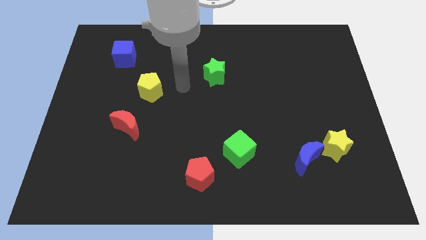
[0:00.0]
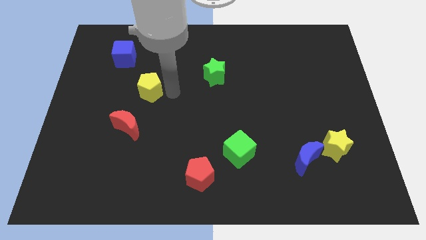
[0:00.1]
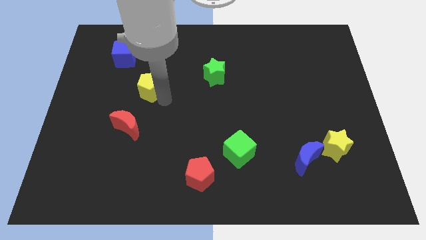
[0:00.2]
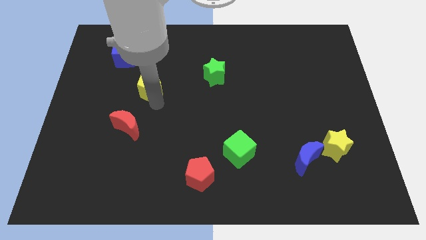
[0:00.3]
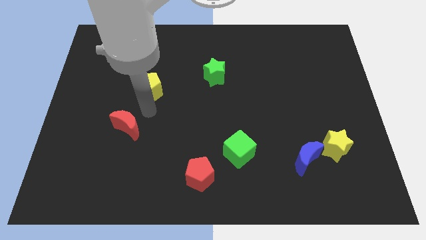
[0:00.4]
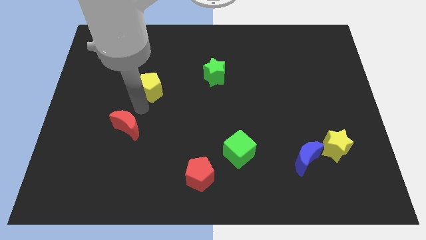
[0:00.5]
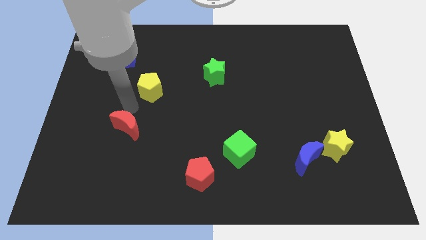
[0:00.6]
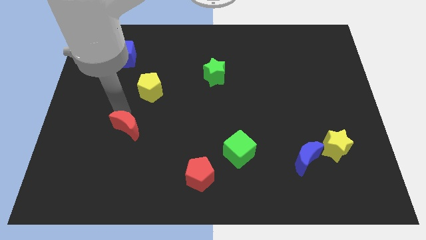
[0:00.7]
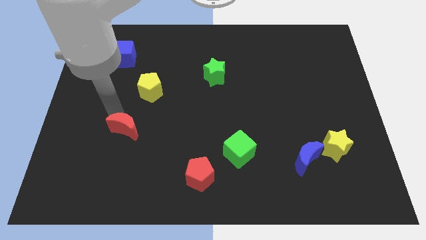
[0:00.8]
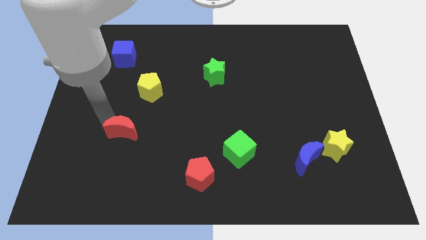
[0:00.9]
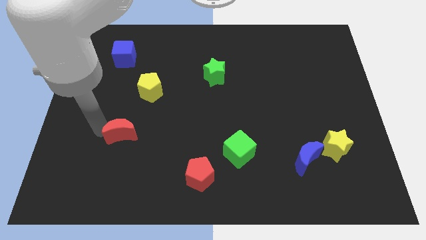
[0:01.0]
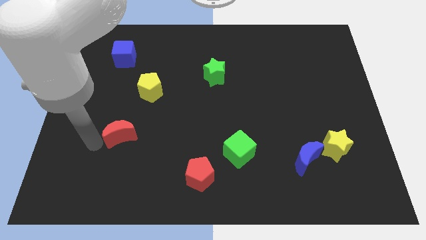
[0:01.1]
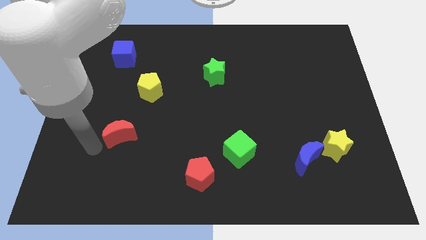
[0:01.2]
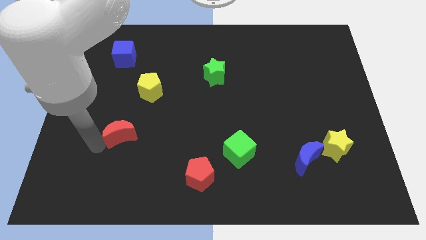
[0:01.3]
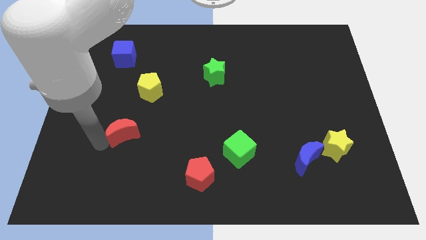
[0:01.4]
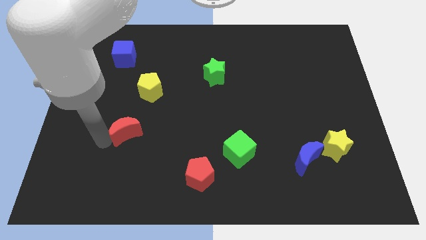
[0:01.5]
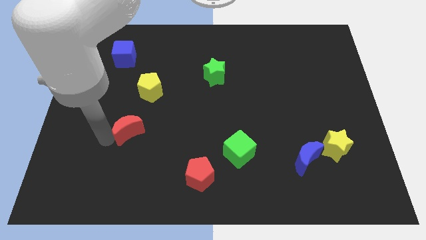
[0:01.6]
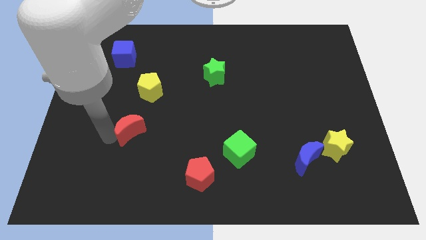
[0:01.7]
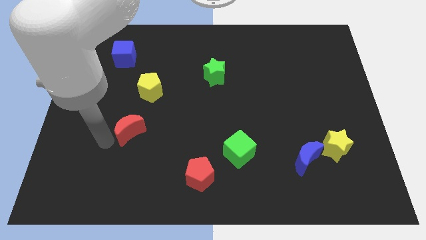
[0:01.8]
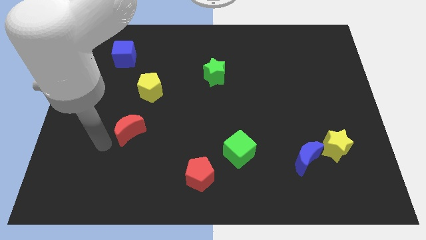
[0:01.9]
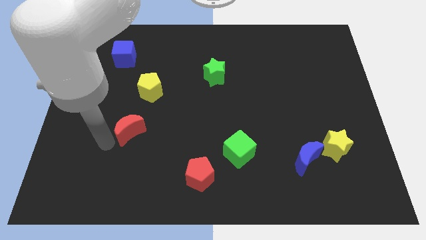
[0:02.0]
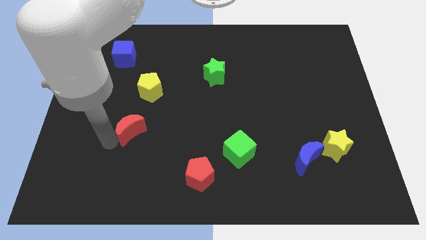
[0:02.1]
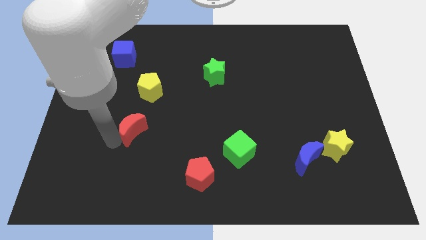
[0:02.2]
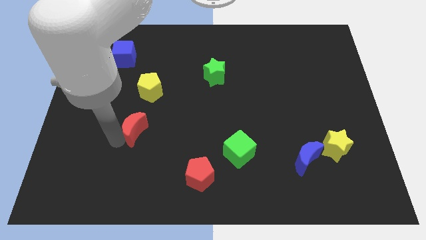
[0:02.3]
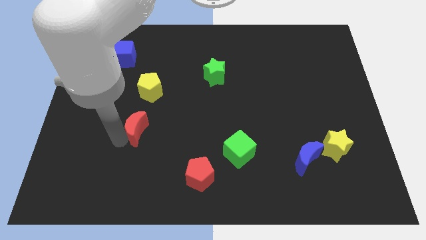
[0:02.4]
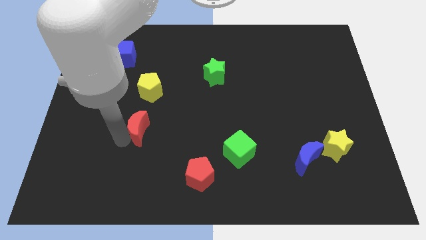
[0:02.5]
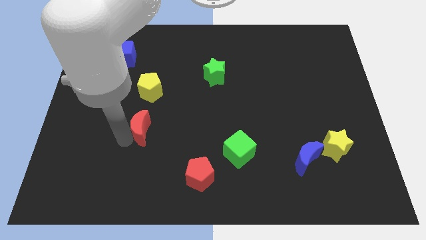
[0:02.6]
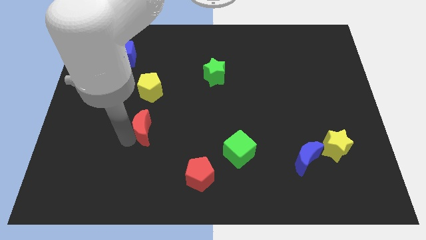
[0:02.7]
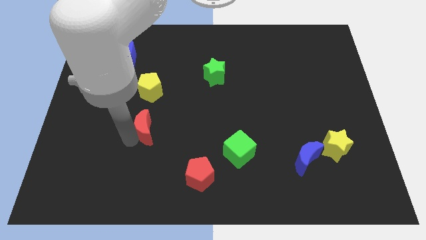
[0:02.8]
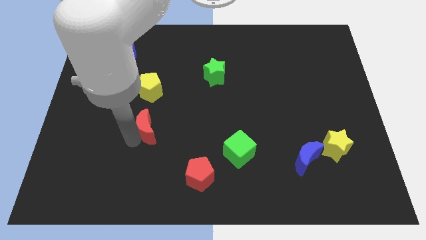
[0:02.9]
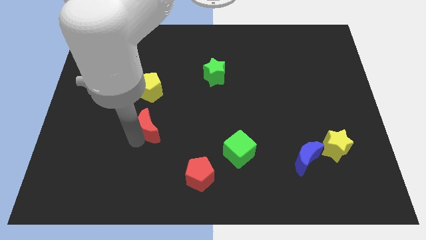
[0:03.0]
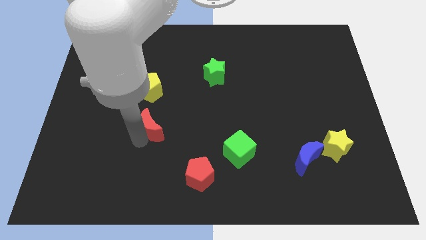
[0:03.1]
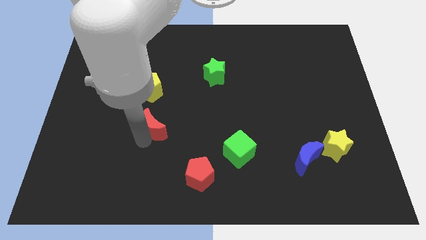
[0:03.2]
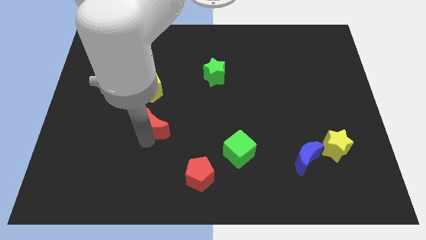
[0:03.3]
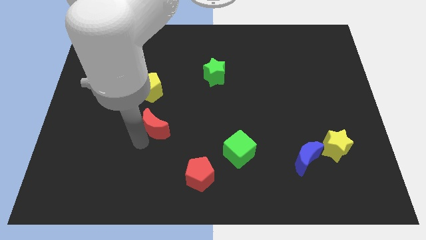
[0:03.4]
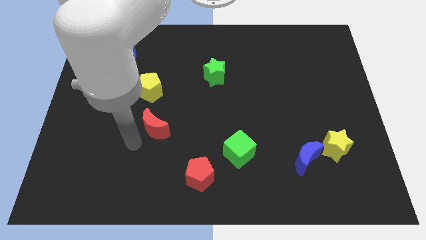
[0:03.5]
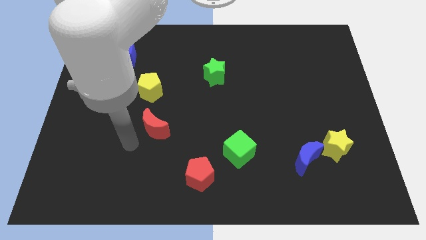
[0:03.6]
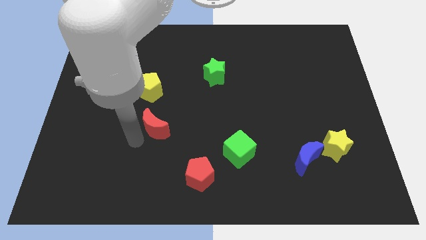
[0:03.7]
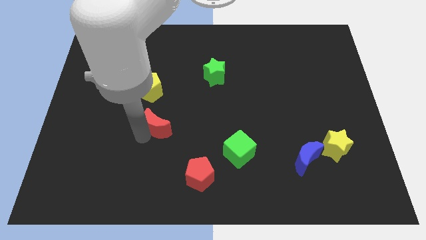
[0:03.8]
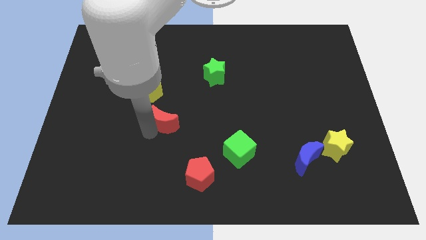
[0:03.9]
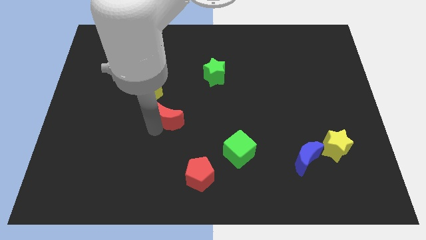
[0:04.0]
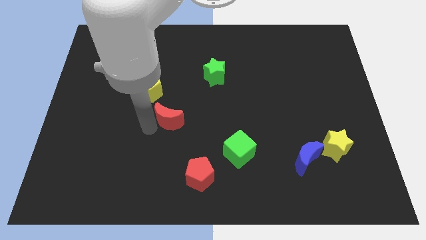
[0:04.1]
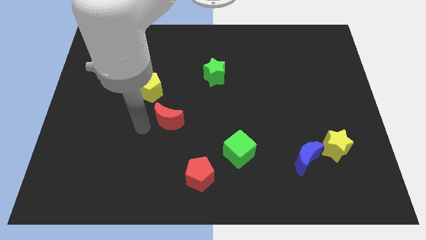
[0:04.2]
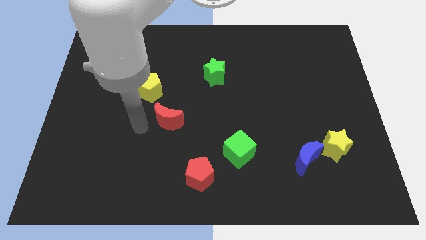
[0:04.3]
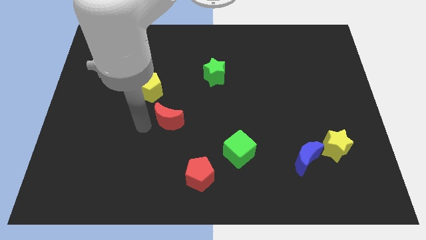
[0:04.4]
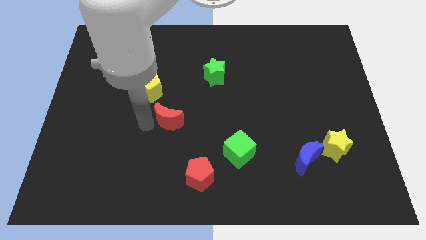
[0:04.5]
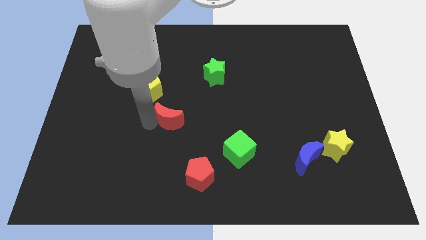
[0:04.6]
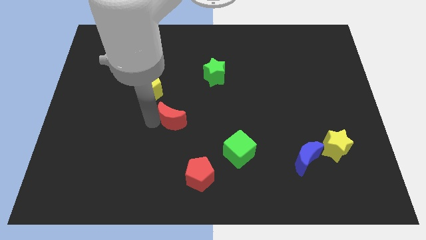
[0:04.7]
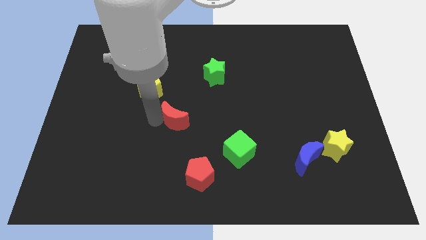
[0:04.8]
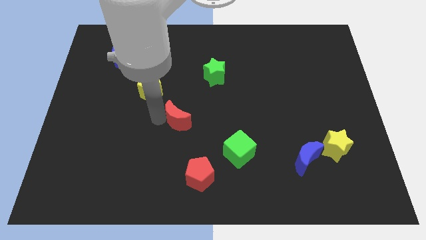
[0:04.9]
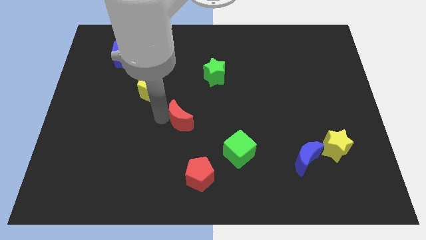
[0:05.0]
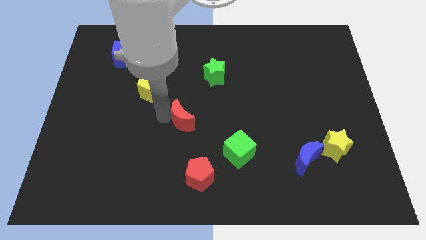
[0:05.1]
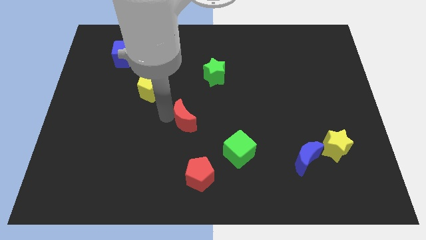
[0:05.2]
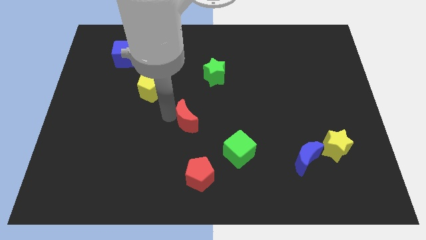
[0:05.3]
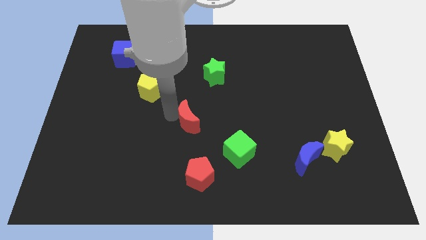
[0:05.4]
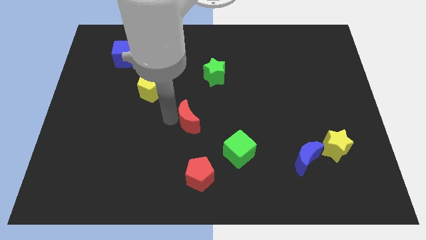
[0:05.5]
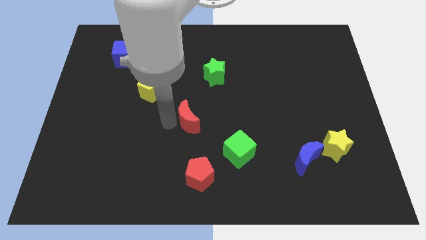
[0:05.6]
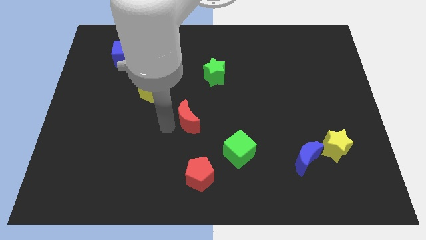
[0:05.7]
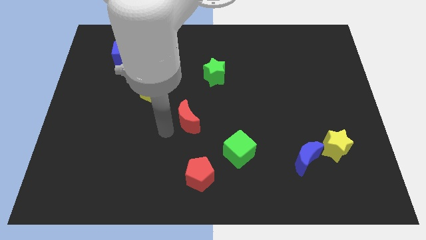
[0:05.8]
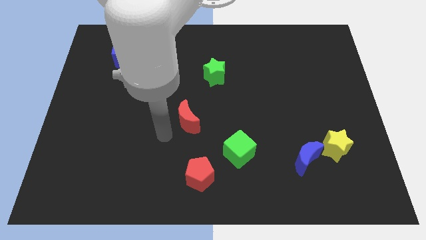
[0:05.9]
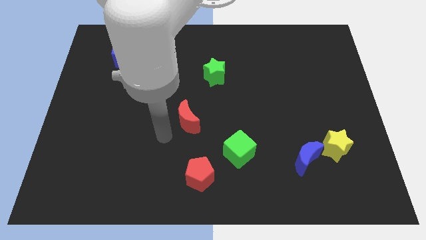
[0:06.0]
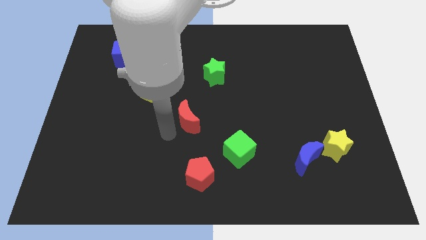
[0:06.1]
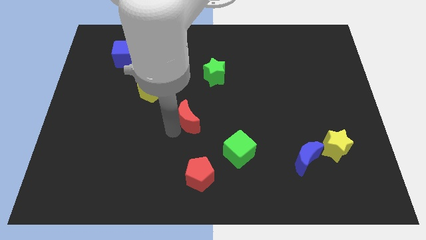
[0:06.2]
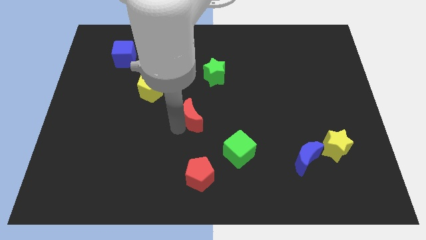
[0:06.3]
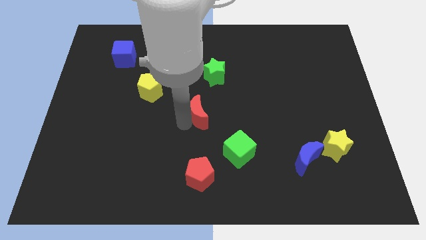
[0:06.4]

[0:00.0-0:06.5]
slide the red moon below the green star

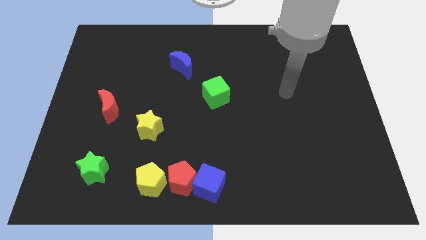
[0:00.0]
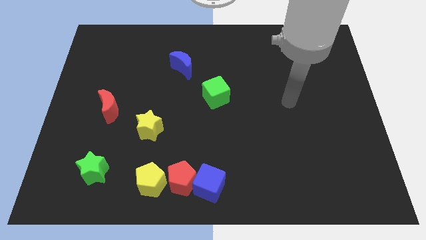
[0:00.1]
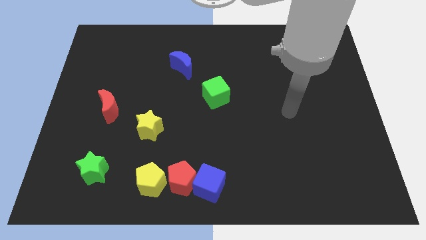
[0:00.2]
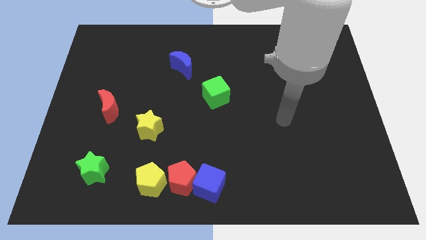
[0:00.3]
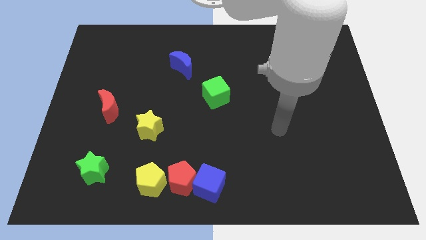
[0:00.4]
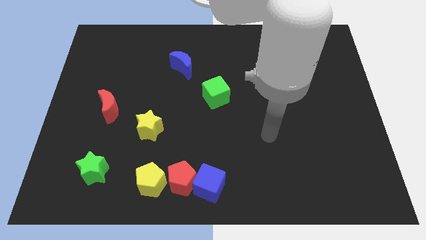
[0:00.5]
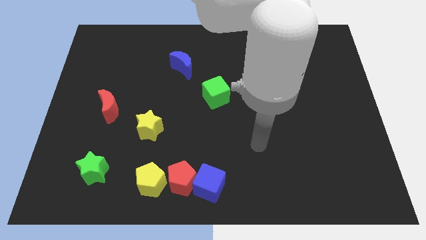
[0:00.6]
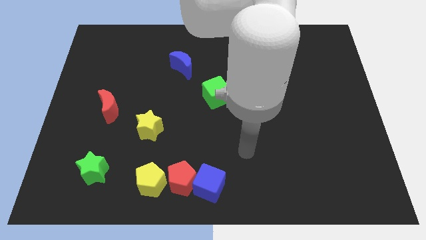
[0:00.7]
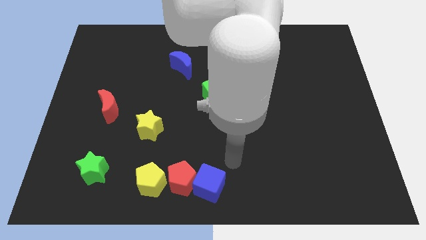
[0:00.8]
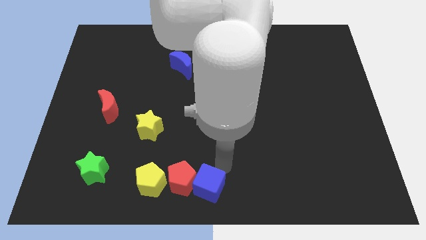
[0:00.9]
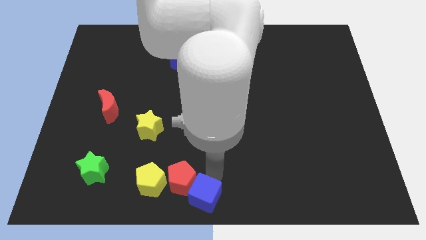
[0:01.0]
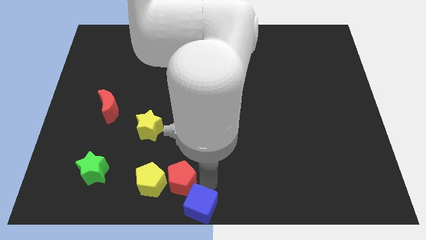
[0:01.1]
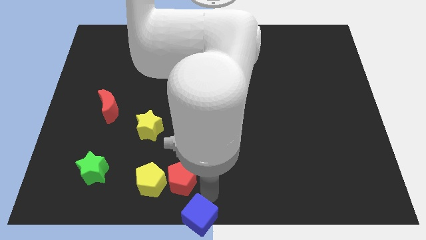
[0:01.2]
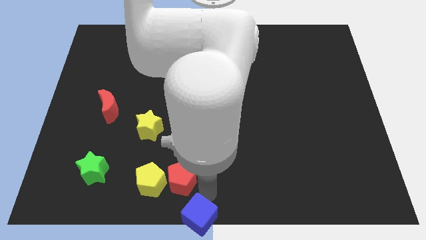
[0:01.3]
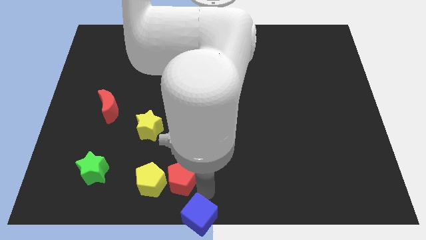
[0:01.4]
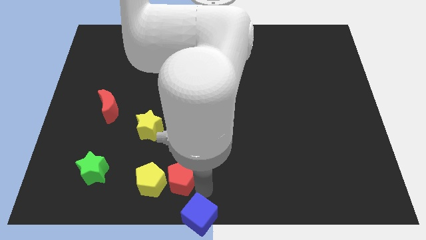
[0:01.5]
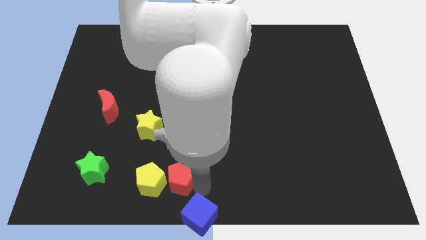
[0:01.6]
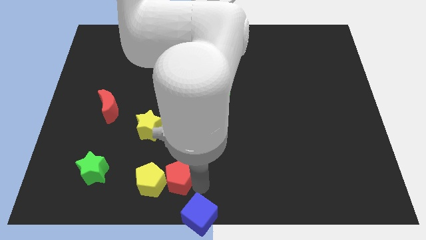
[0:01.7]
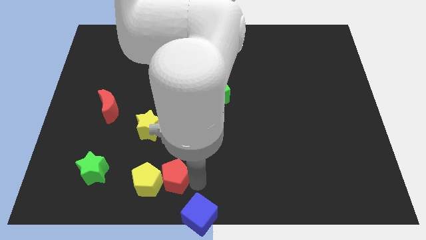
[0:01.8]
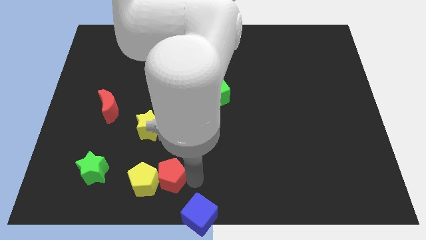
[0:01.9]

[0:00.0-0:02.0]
move the red pentagon to the right side of the green star
